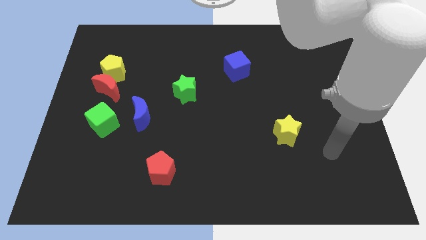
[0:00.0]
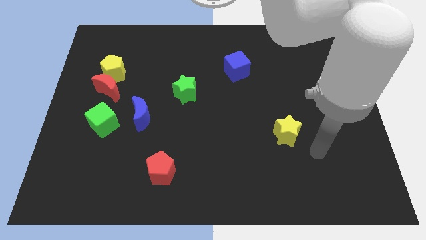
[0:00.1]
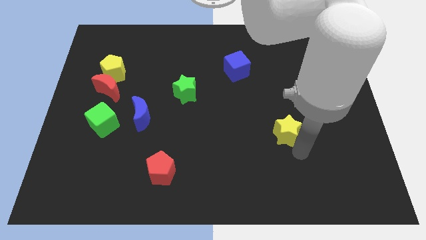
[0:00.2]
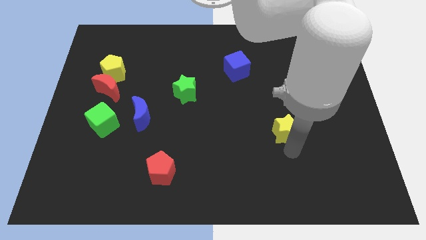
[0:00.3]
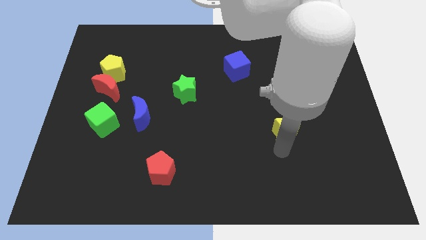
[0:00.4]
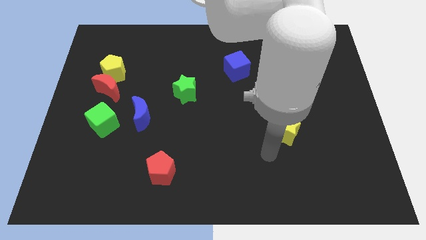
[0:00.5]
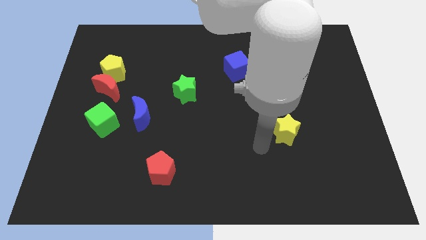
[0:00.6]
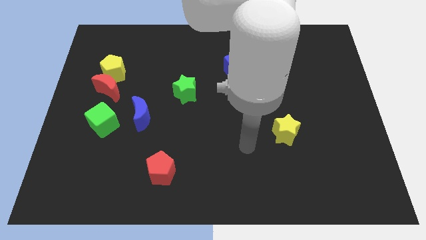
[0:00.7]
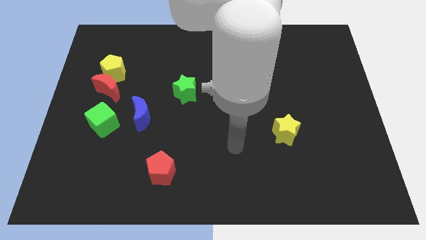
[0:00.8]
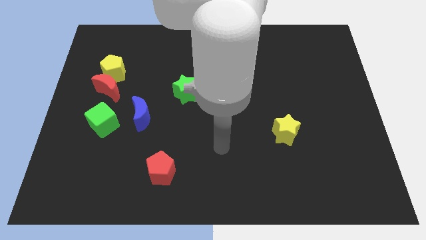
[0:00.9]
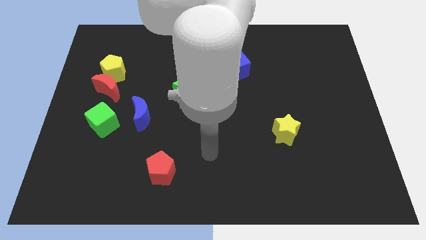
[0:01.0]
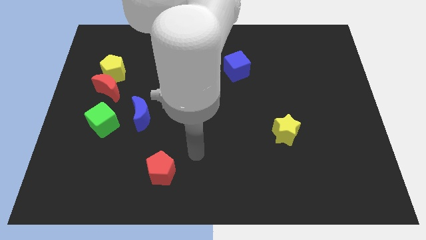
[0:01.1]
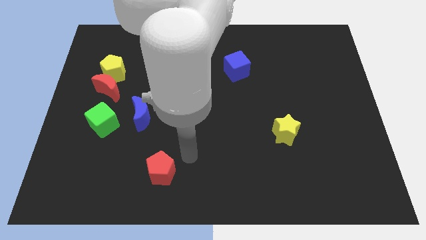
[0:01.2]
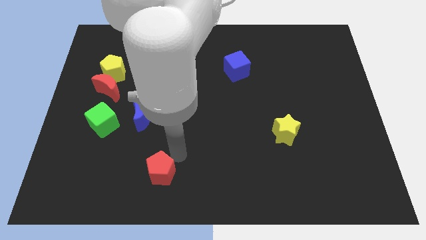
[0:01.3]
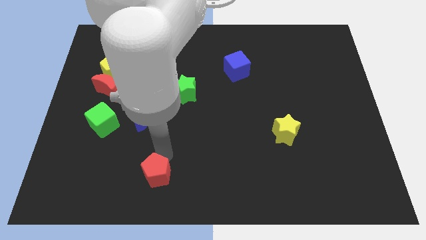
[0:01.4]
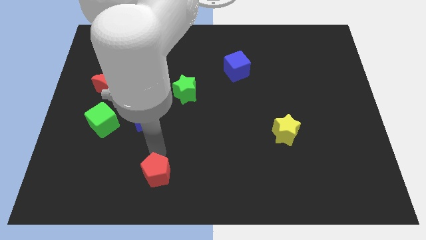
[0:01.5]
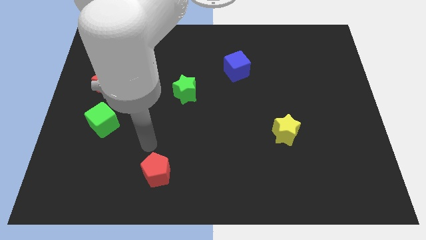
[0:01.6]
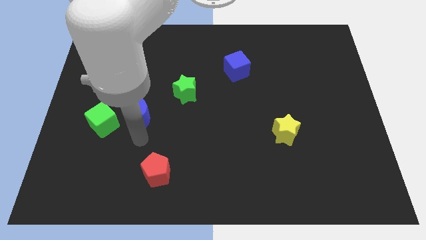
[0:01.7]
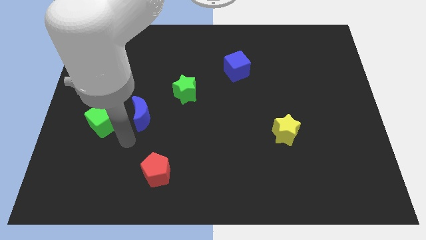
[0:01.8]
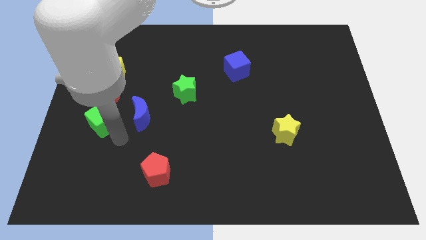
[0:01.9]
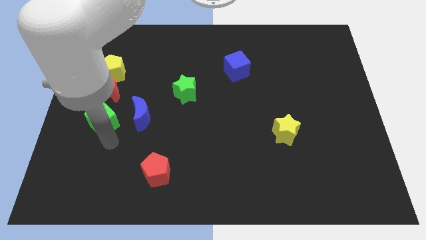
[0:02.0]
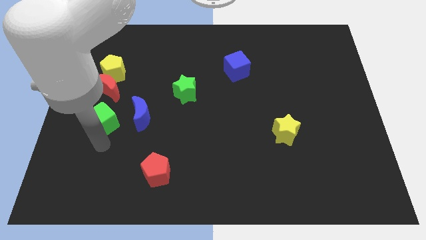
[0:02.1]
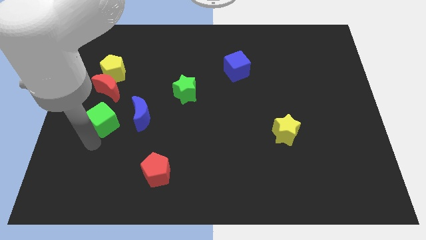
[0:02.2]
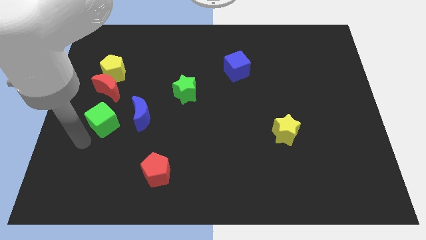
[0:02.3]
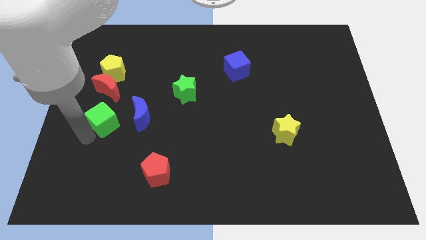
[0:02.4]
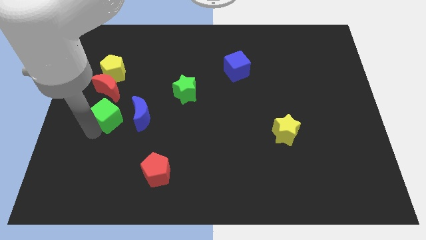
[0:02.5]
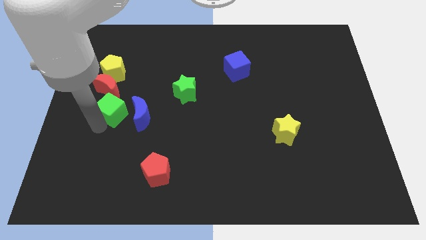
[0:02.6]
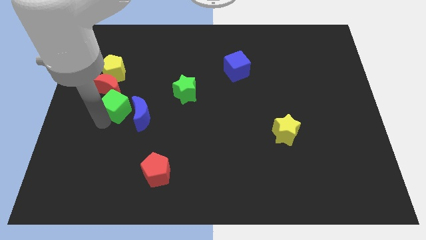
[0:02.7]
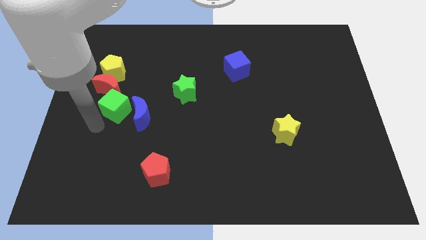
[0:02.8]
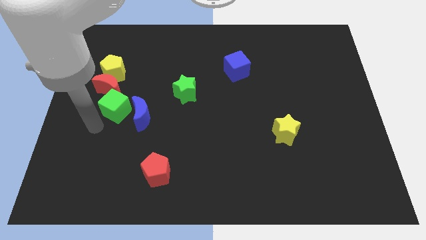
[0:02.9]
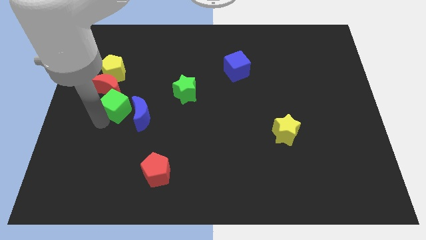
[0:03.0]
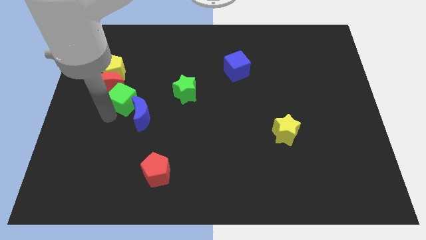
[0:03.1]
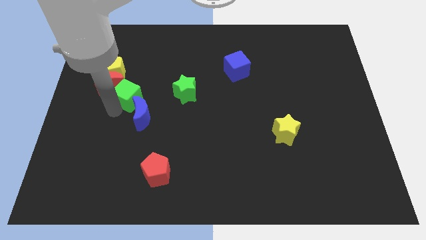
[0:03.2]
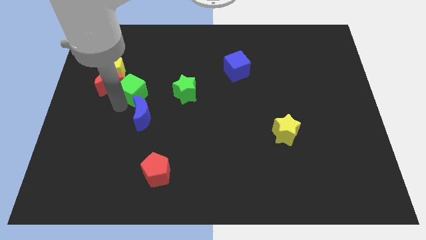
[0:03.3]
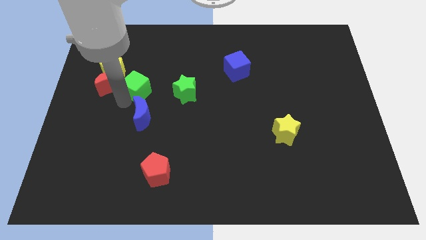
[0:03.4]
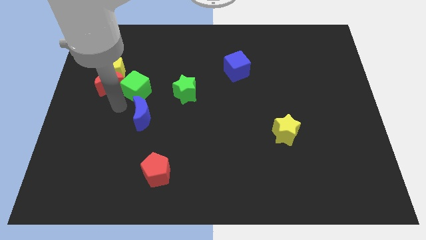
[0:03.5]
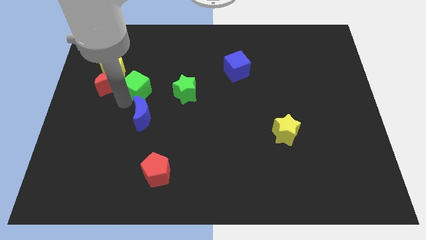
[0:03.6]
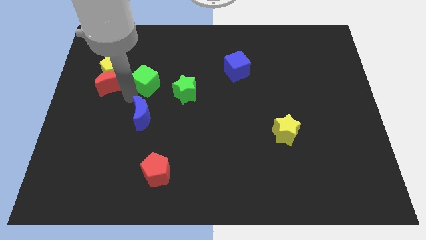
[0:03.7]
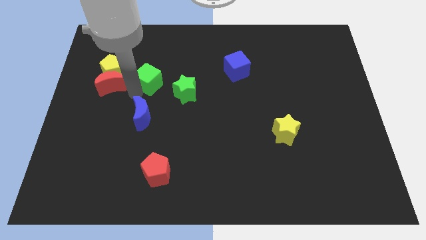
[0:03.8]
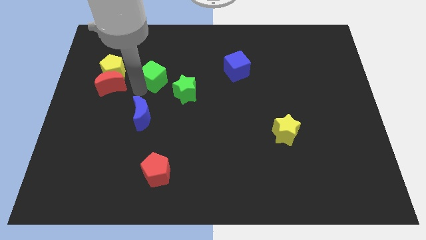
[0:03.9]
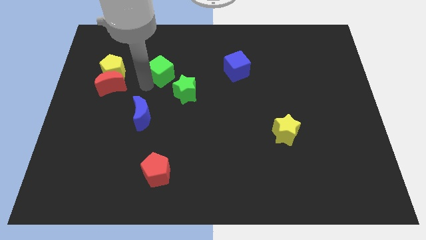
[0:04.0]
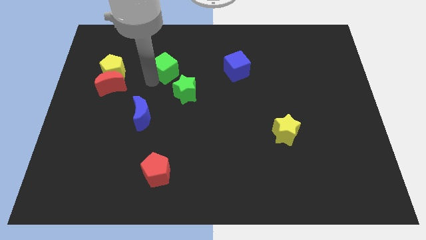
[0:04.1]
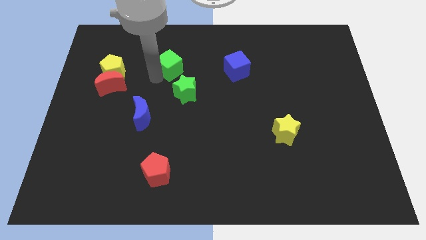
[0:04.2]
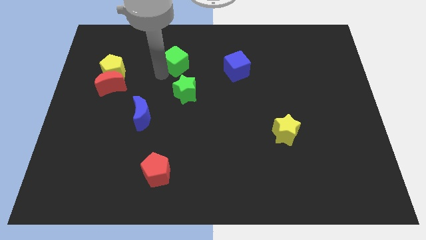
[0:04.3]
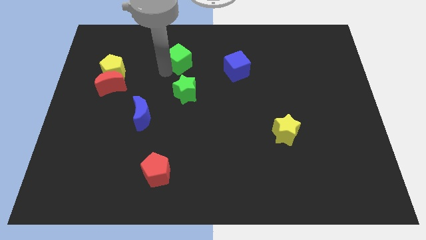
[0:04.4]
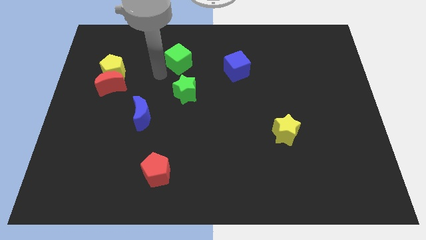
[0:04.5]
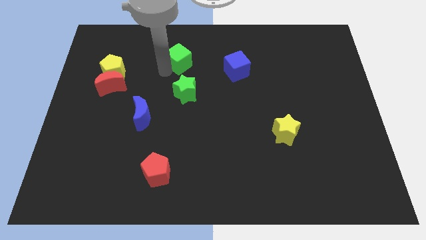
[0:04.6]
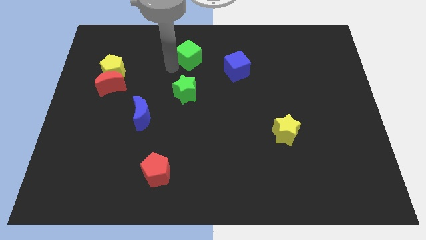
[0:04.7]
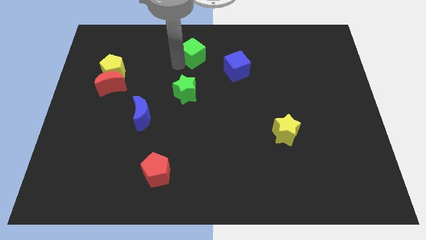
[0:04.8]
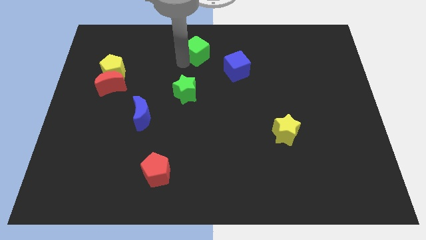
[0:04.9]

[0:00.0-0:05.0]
put the green cube to the top side

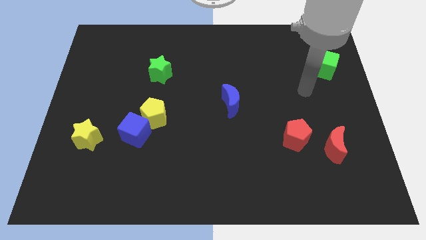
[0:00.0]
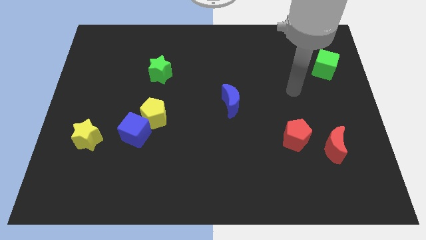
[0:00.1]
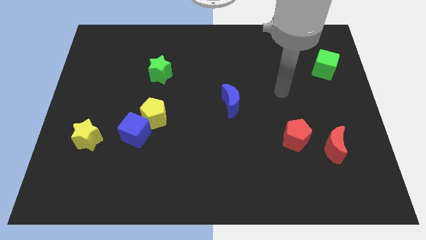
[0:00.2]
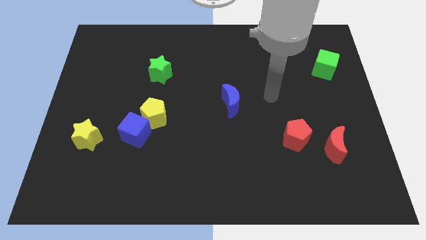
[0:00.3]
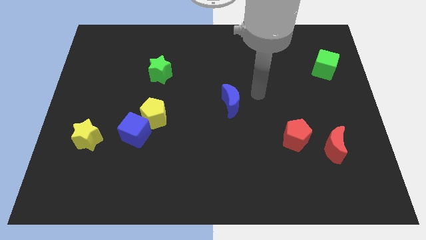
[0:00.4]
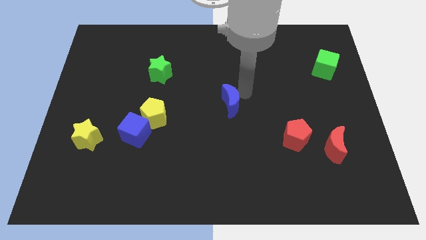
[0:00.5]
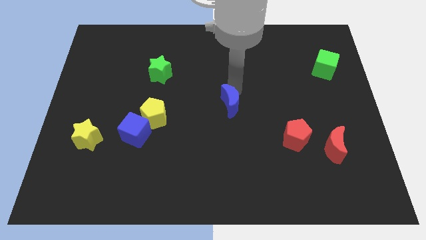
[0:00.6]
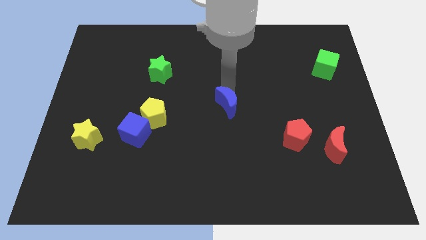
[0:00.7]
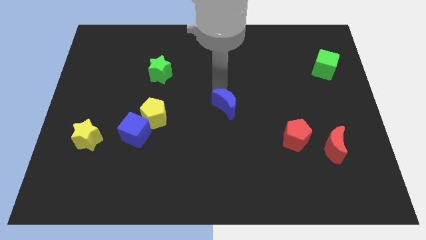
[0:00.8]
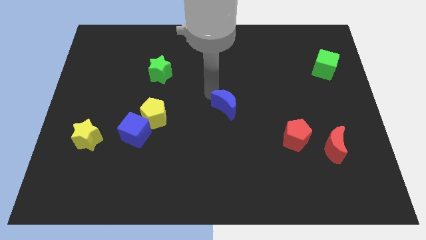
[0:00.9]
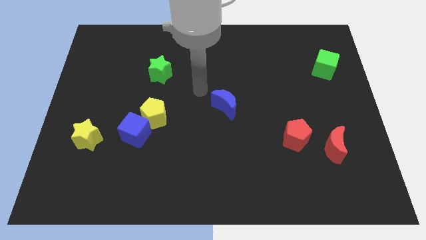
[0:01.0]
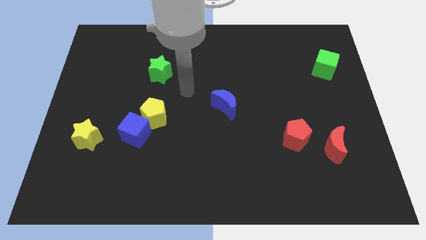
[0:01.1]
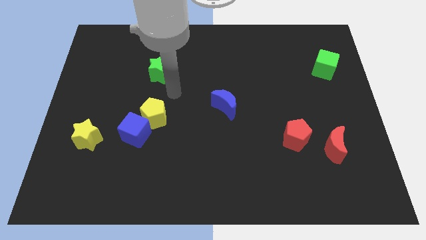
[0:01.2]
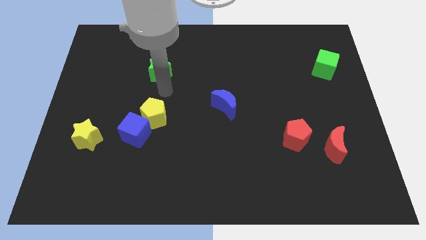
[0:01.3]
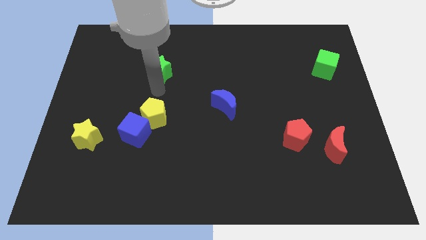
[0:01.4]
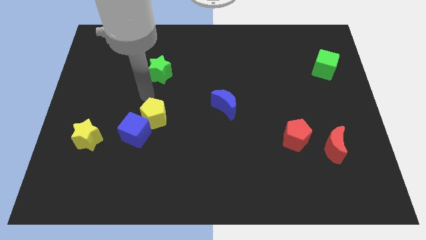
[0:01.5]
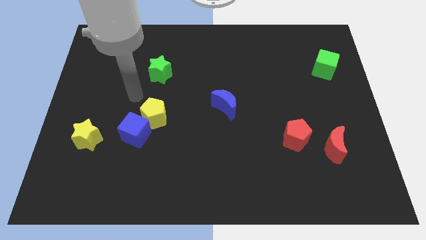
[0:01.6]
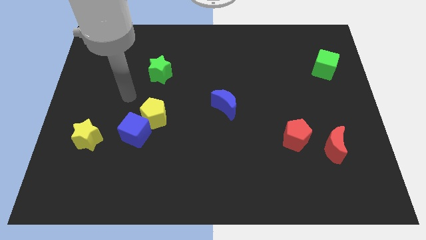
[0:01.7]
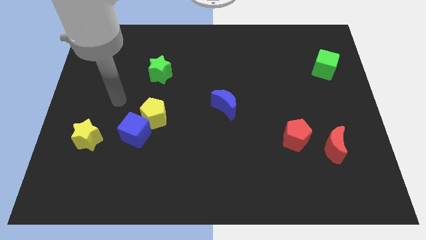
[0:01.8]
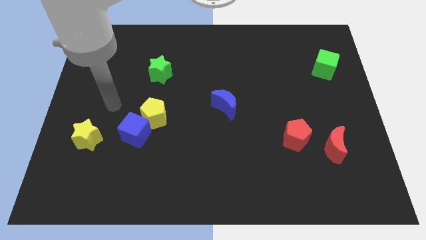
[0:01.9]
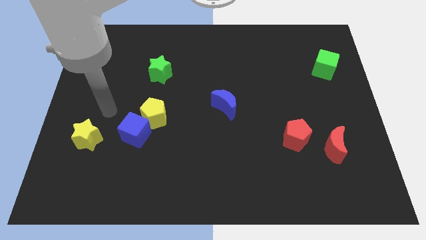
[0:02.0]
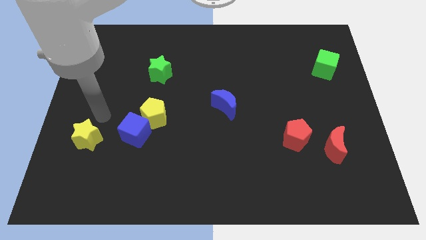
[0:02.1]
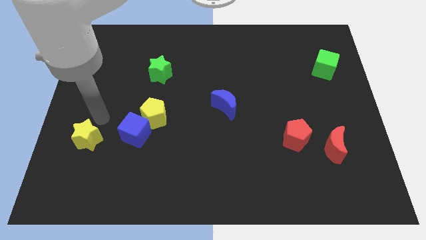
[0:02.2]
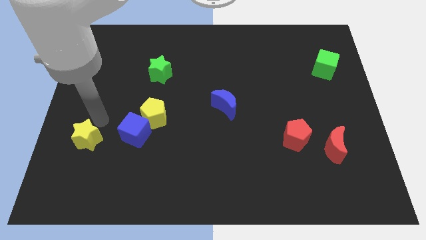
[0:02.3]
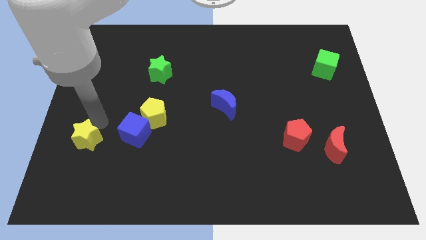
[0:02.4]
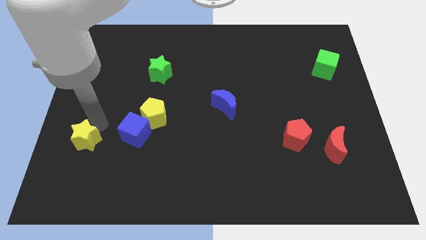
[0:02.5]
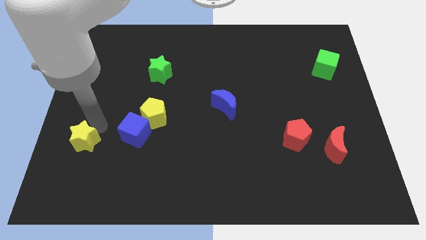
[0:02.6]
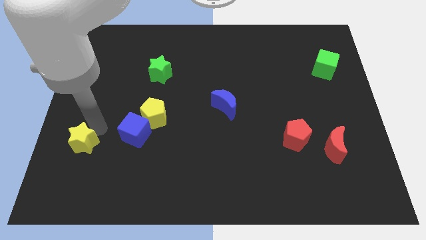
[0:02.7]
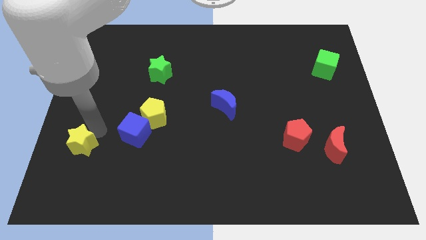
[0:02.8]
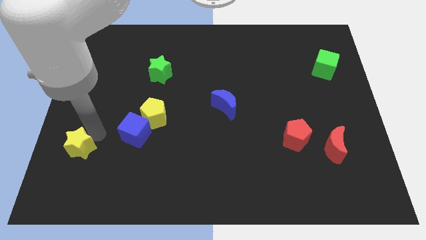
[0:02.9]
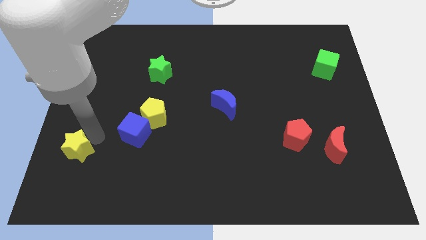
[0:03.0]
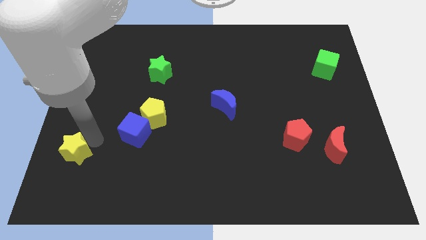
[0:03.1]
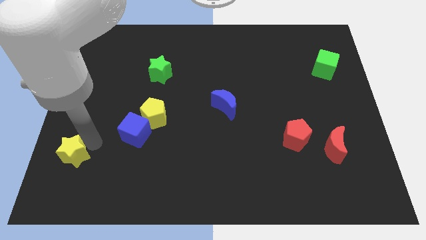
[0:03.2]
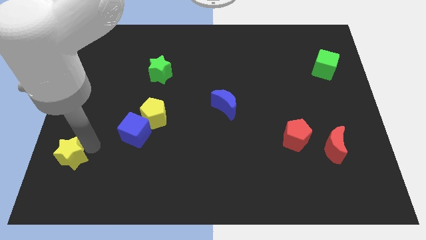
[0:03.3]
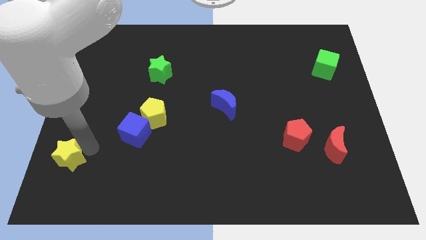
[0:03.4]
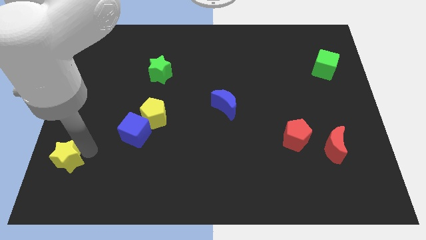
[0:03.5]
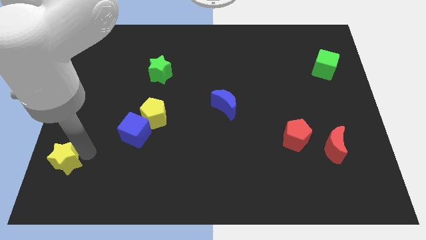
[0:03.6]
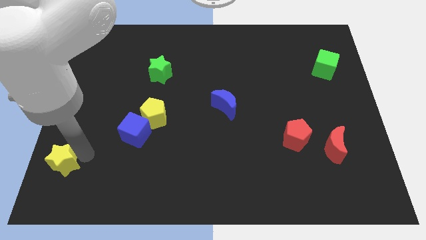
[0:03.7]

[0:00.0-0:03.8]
put the yellow star to the bottom left of the board
